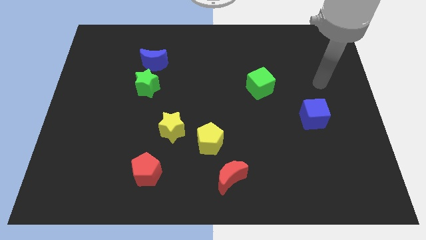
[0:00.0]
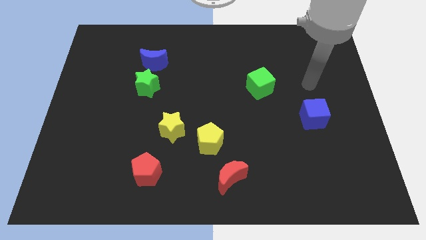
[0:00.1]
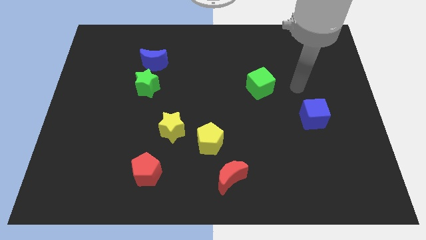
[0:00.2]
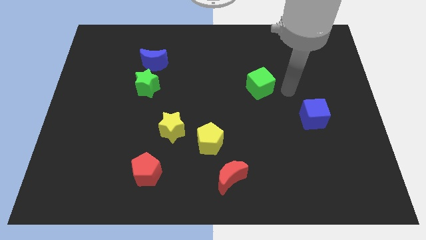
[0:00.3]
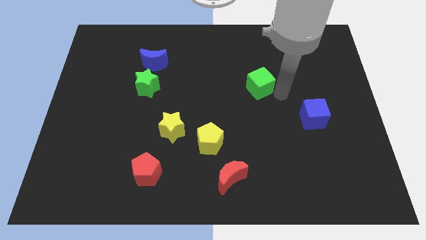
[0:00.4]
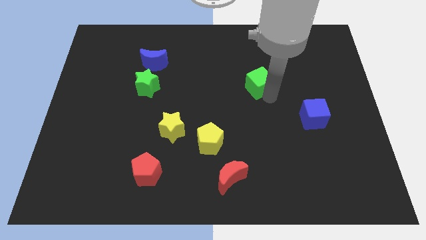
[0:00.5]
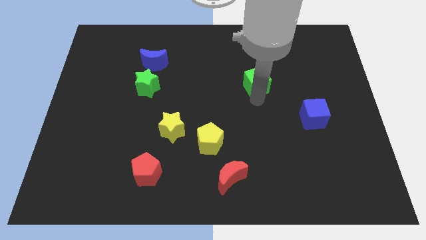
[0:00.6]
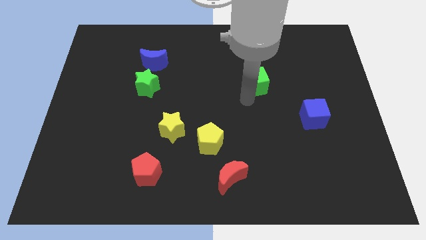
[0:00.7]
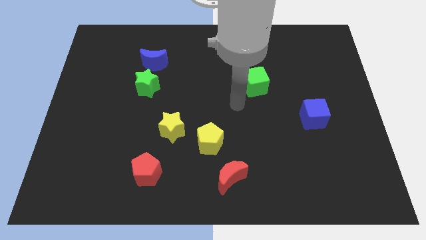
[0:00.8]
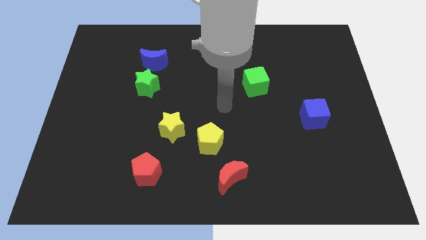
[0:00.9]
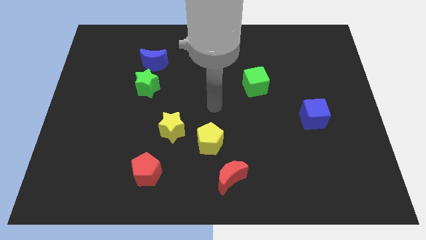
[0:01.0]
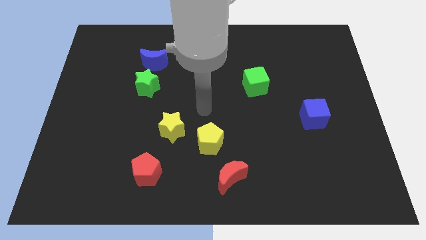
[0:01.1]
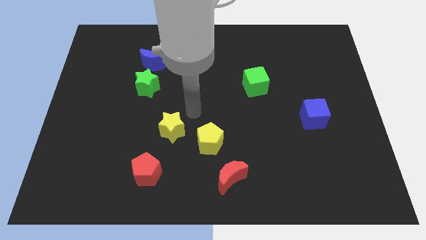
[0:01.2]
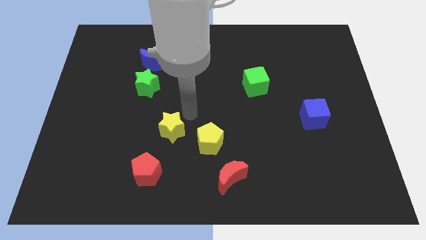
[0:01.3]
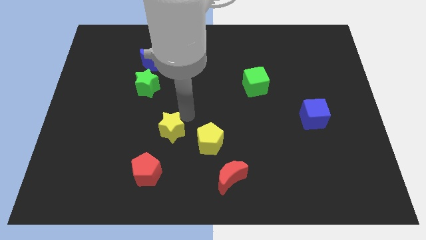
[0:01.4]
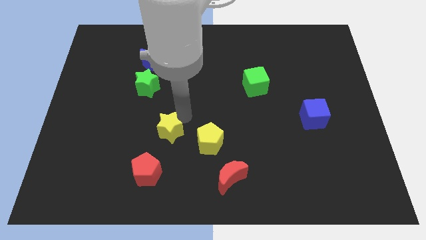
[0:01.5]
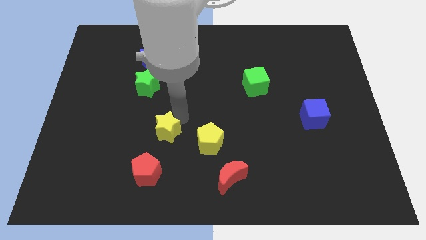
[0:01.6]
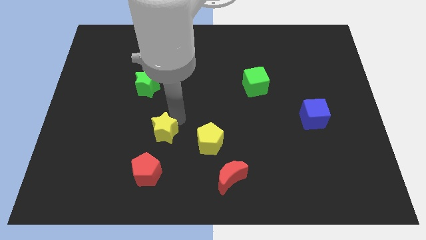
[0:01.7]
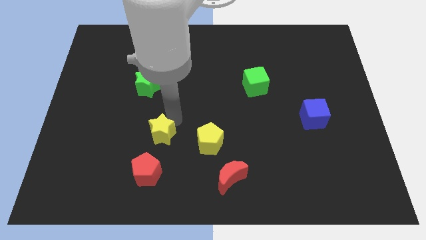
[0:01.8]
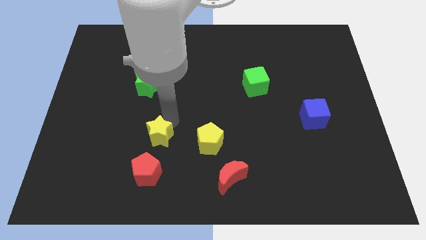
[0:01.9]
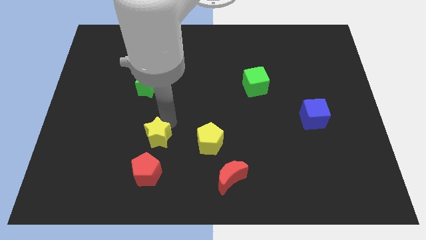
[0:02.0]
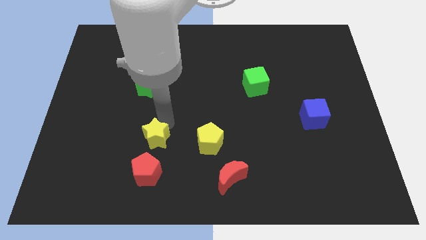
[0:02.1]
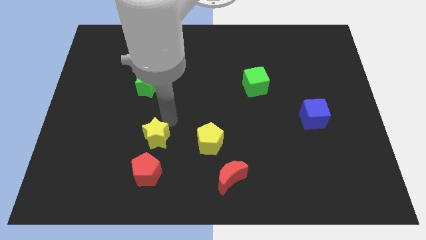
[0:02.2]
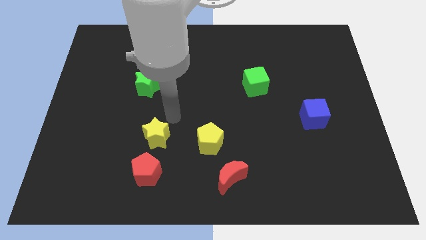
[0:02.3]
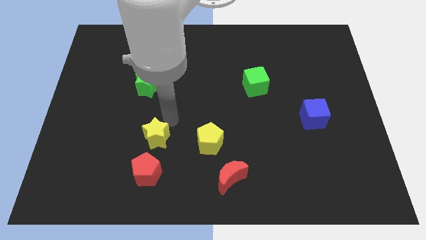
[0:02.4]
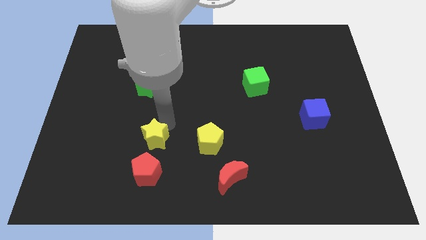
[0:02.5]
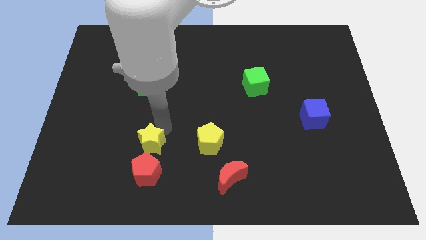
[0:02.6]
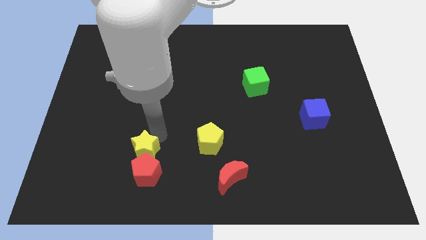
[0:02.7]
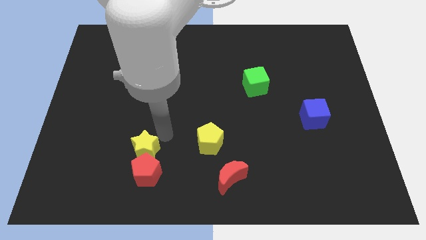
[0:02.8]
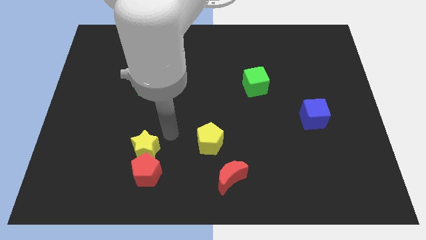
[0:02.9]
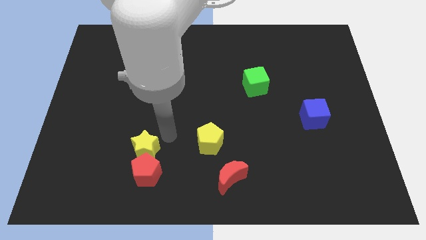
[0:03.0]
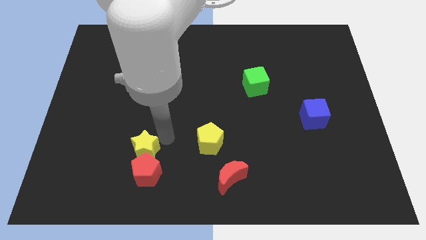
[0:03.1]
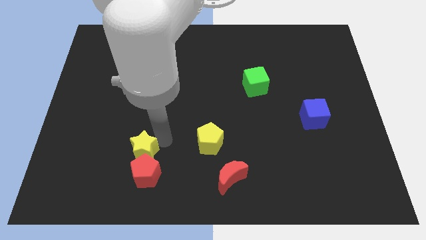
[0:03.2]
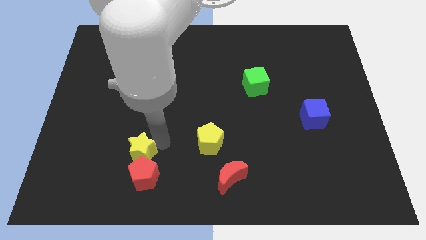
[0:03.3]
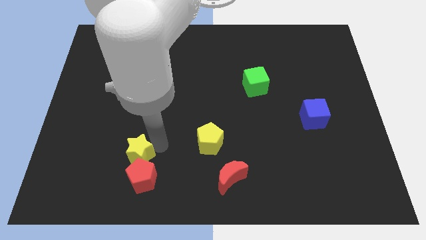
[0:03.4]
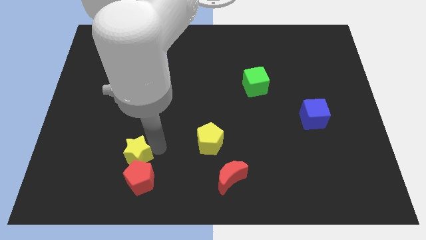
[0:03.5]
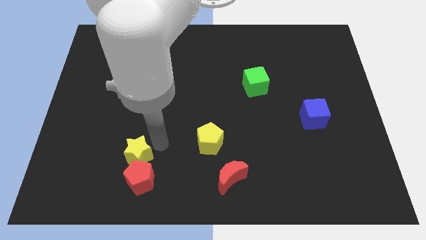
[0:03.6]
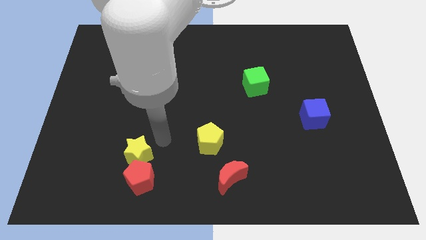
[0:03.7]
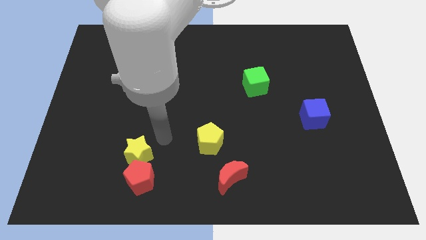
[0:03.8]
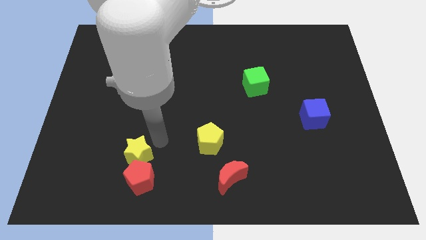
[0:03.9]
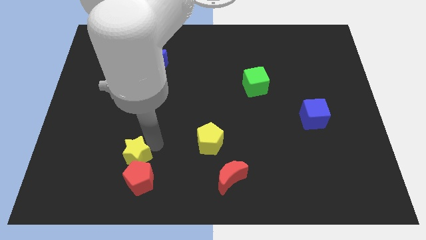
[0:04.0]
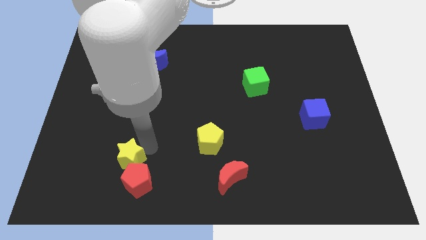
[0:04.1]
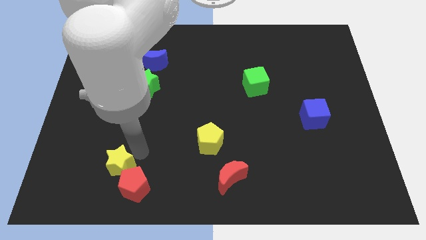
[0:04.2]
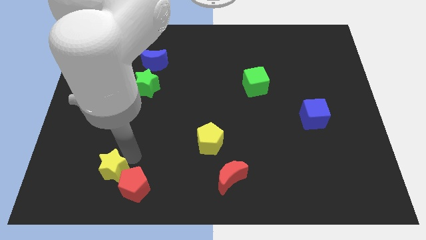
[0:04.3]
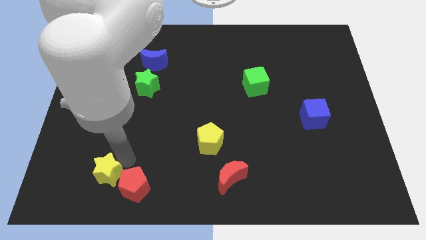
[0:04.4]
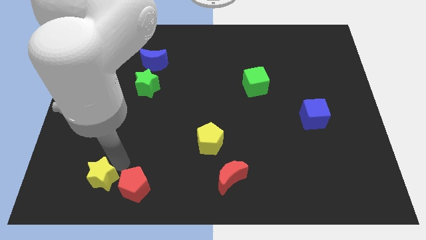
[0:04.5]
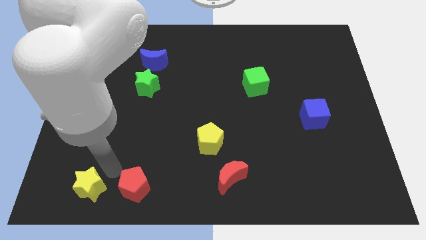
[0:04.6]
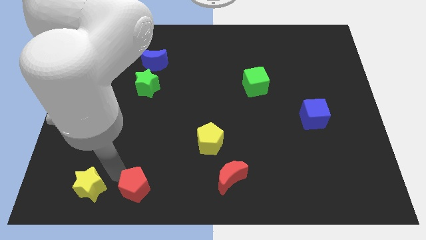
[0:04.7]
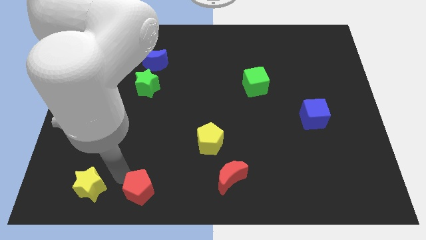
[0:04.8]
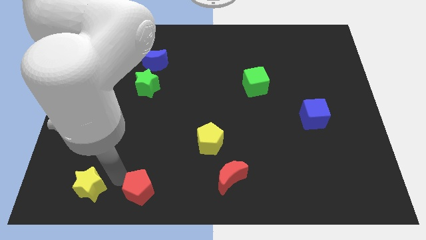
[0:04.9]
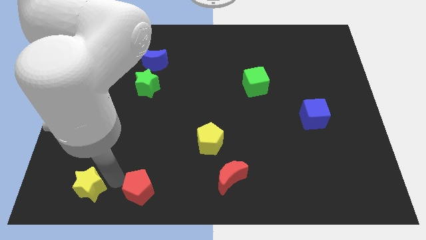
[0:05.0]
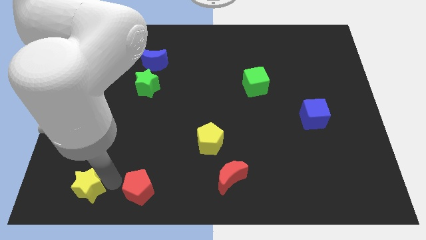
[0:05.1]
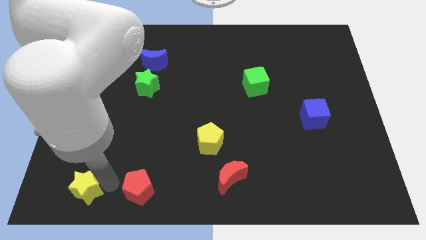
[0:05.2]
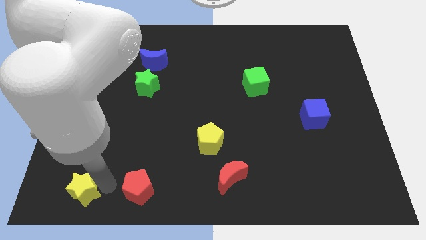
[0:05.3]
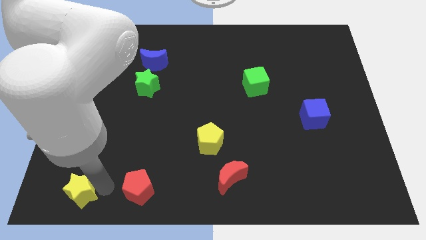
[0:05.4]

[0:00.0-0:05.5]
push the yellow star to the bottom left
